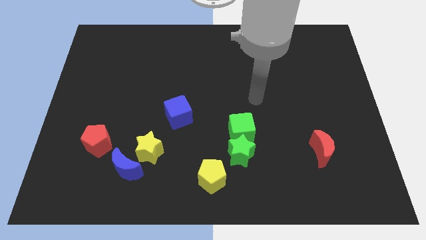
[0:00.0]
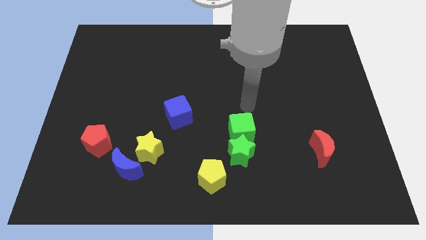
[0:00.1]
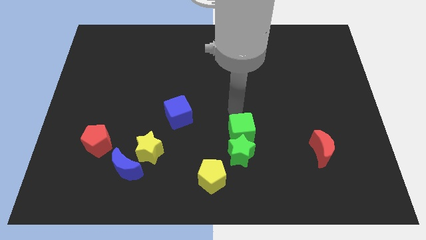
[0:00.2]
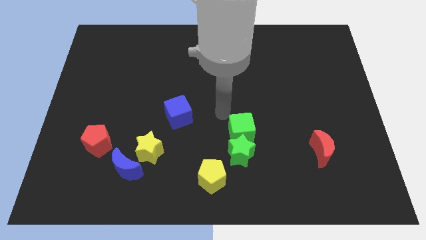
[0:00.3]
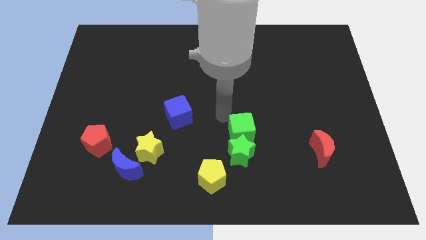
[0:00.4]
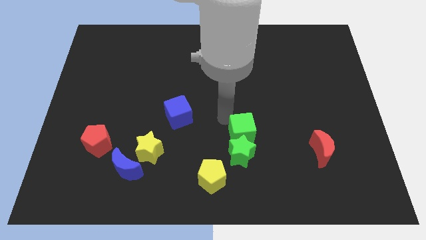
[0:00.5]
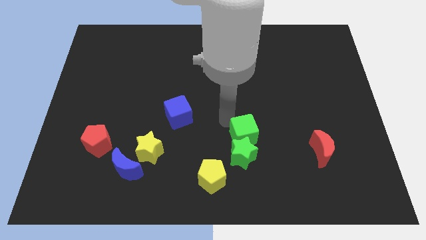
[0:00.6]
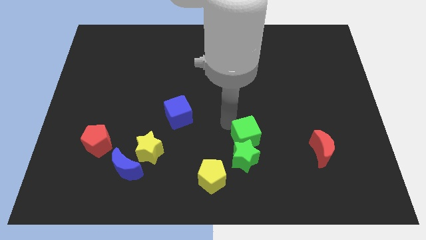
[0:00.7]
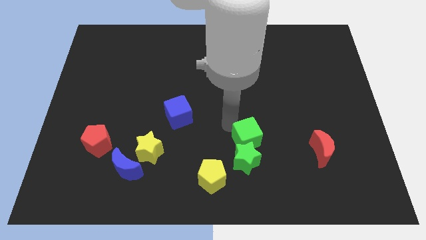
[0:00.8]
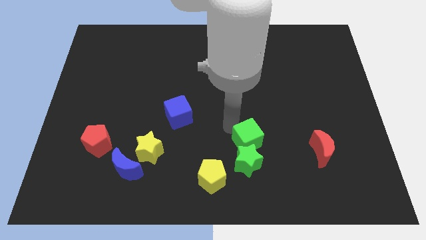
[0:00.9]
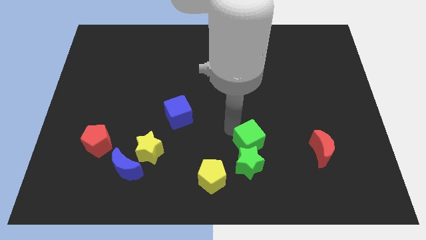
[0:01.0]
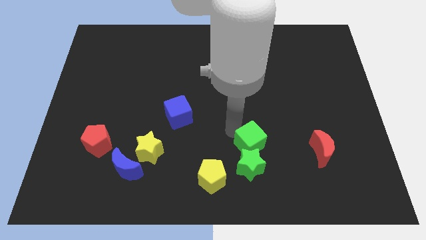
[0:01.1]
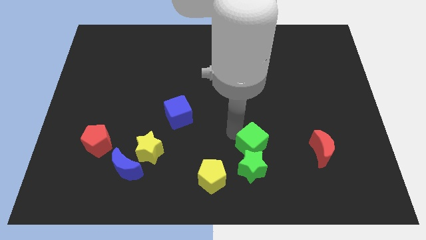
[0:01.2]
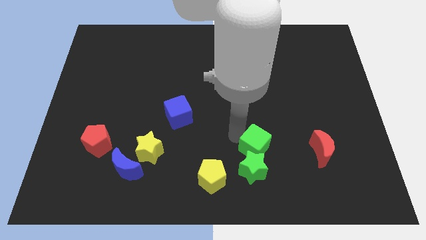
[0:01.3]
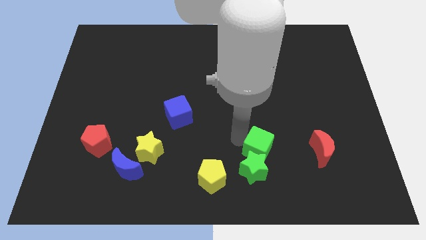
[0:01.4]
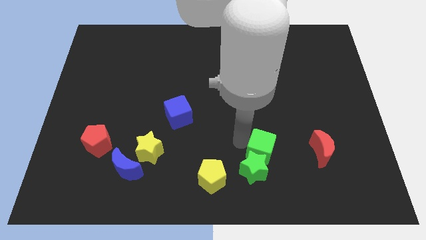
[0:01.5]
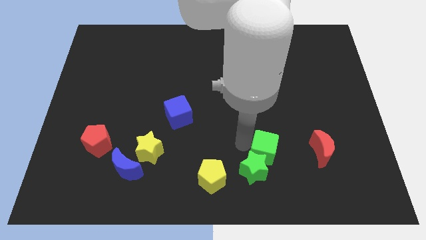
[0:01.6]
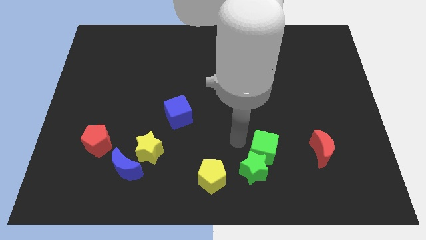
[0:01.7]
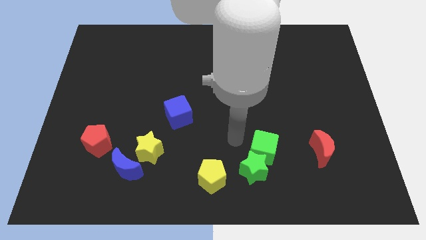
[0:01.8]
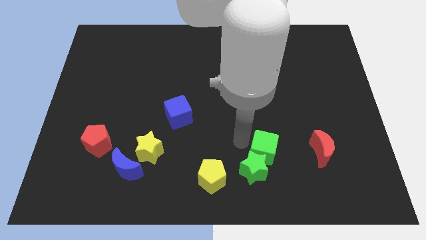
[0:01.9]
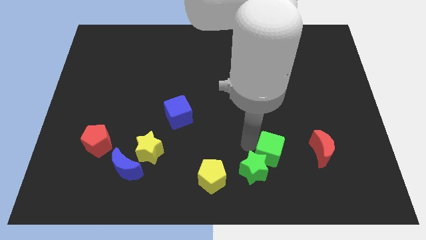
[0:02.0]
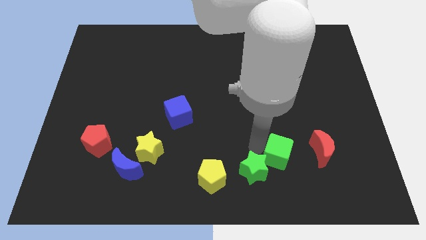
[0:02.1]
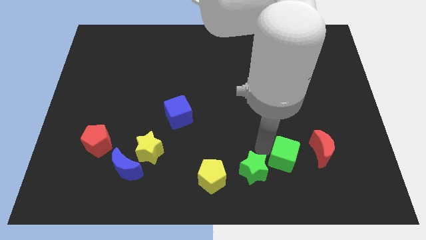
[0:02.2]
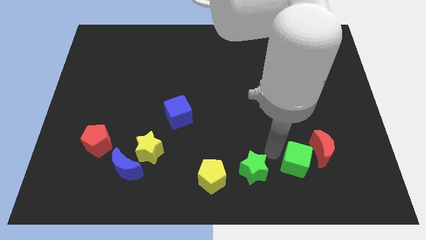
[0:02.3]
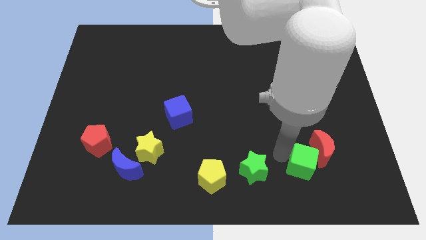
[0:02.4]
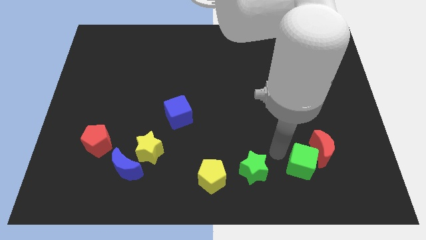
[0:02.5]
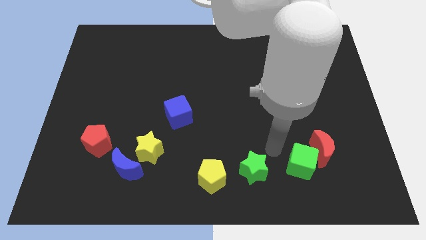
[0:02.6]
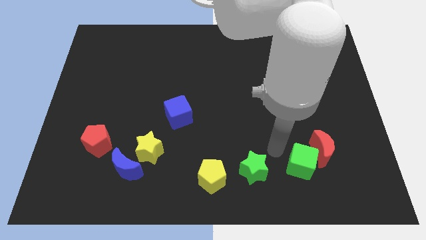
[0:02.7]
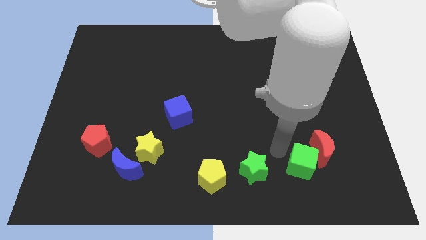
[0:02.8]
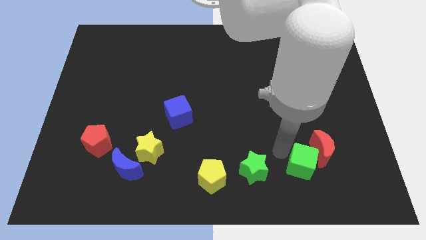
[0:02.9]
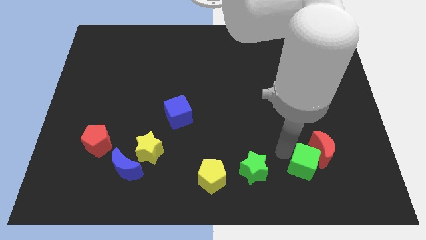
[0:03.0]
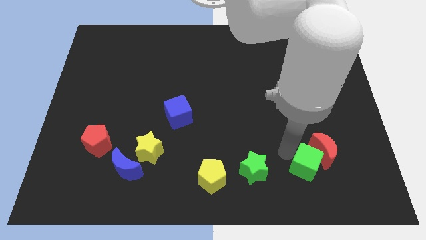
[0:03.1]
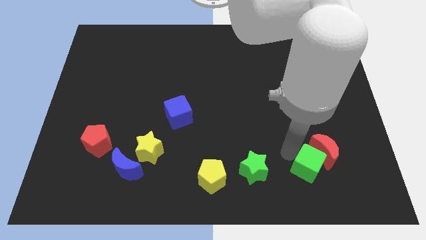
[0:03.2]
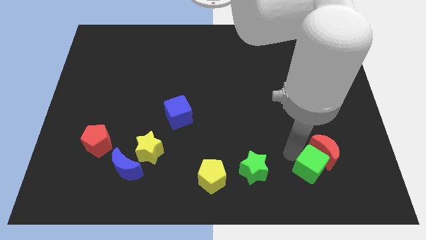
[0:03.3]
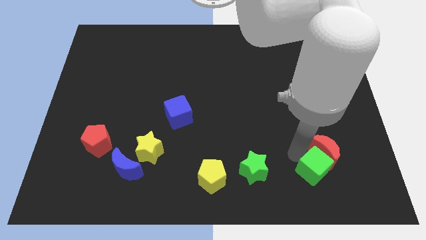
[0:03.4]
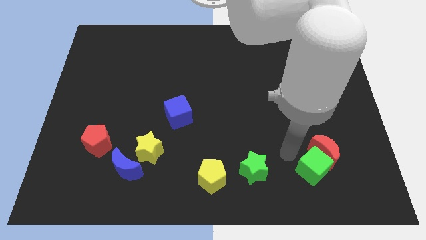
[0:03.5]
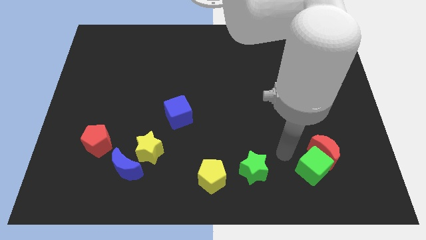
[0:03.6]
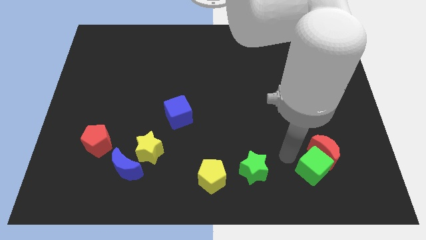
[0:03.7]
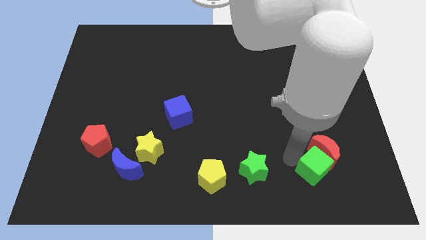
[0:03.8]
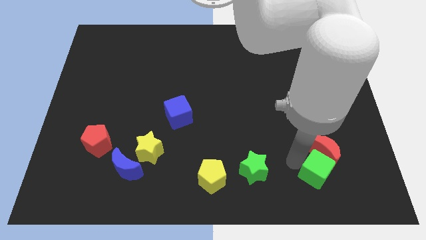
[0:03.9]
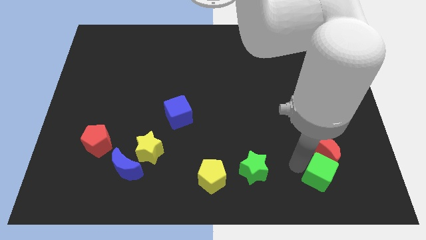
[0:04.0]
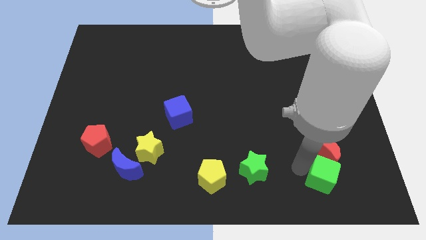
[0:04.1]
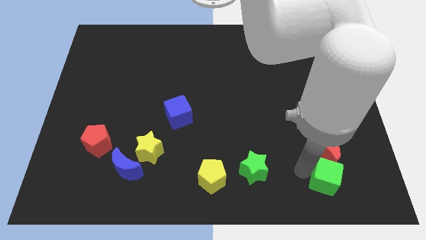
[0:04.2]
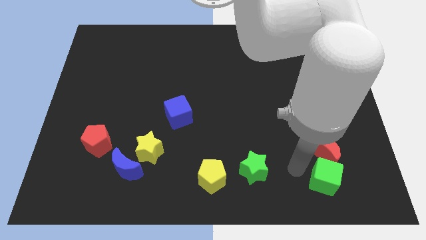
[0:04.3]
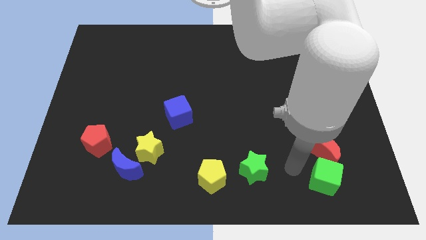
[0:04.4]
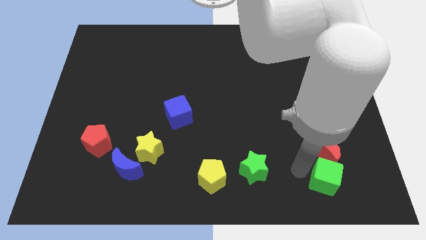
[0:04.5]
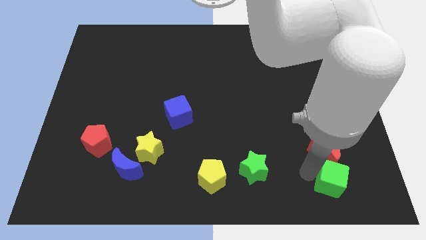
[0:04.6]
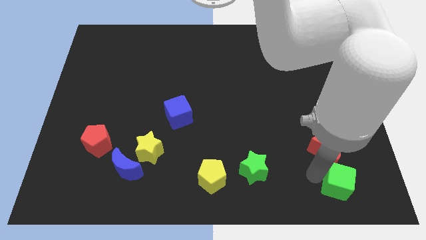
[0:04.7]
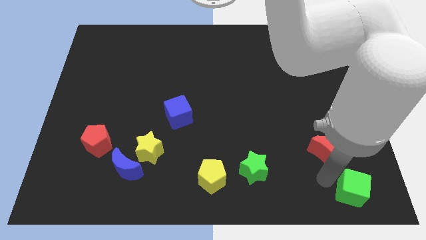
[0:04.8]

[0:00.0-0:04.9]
move the green cube to the bottom right of the board

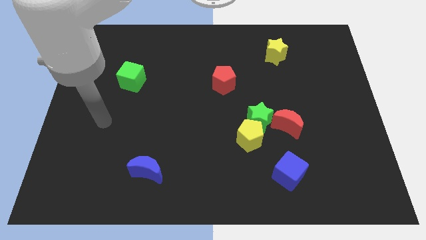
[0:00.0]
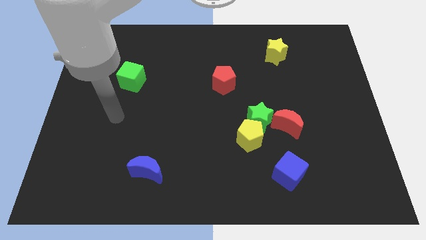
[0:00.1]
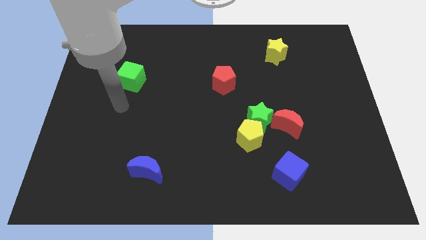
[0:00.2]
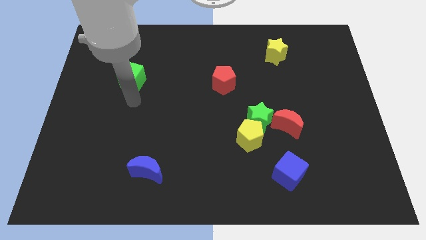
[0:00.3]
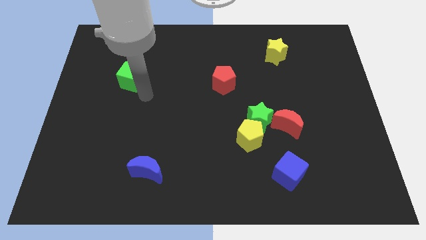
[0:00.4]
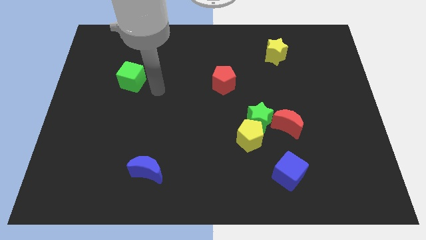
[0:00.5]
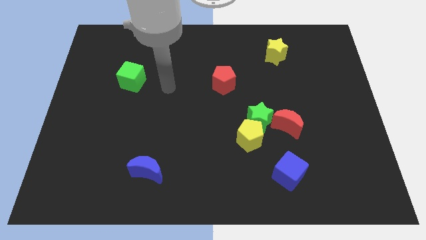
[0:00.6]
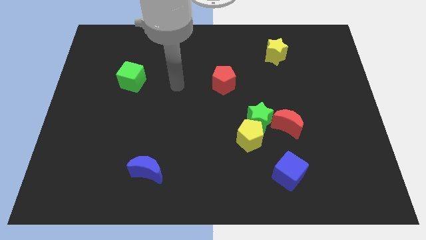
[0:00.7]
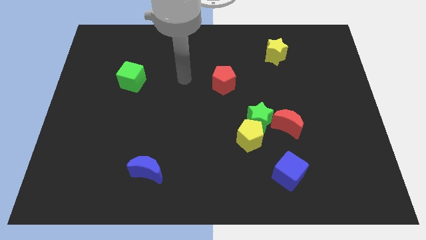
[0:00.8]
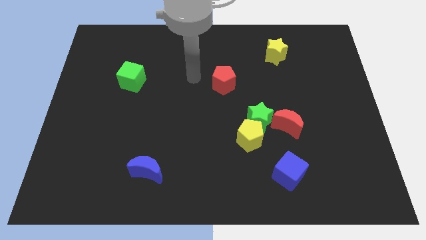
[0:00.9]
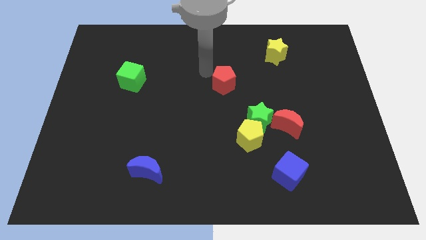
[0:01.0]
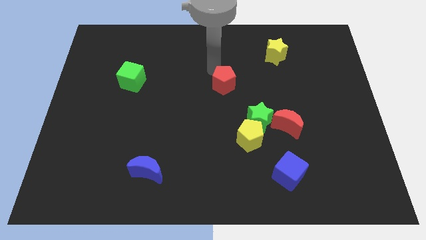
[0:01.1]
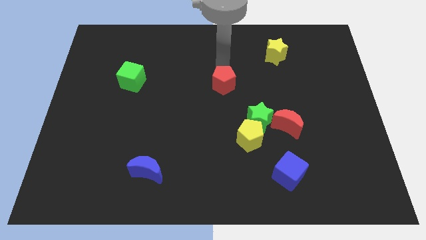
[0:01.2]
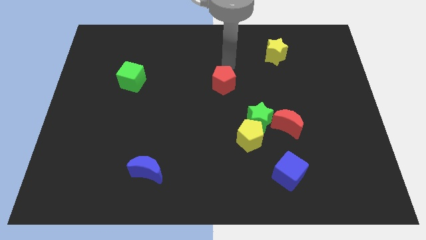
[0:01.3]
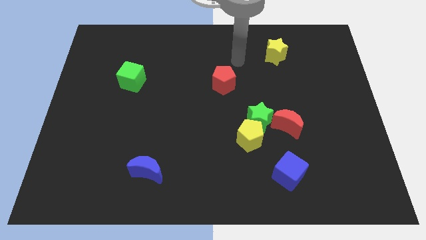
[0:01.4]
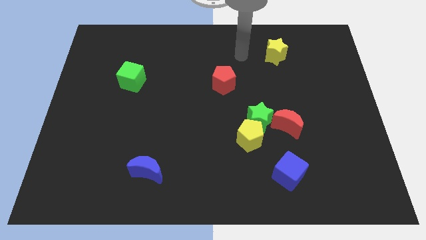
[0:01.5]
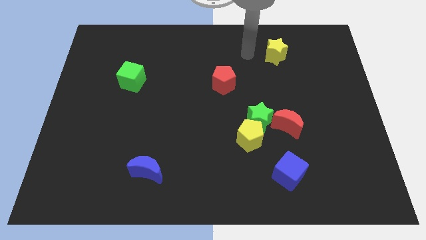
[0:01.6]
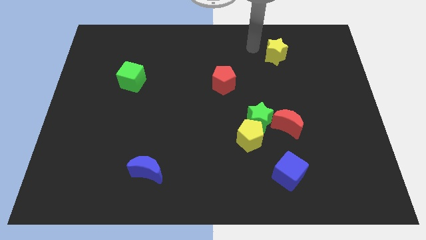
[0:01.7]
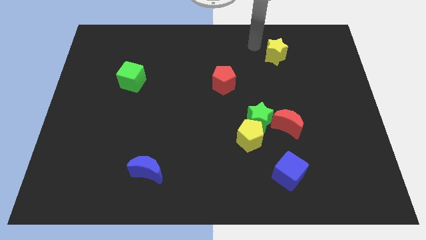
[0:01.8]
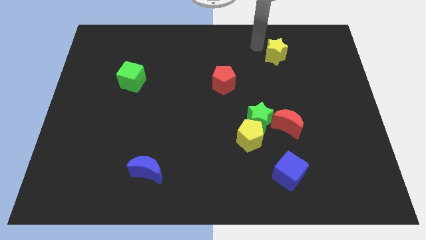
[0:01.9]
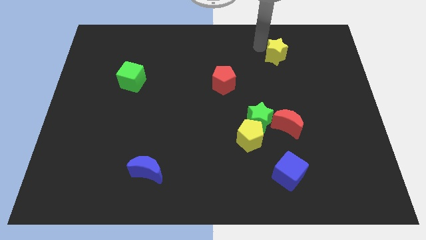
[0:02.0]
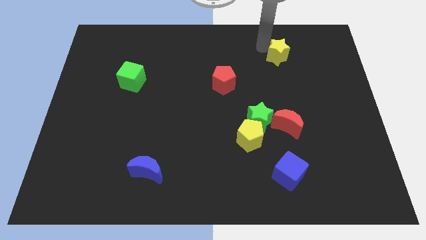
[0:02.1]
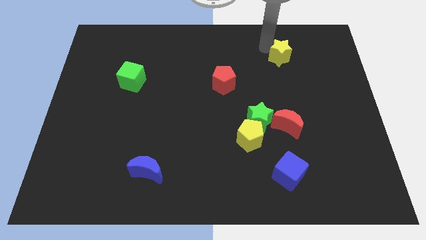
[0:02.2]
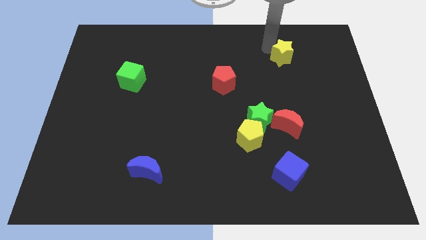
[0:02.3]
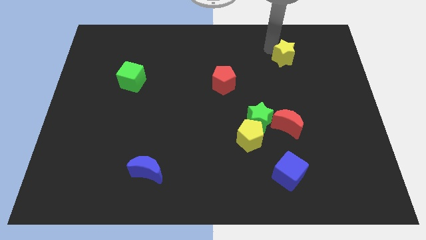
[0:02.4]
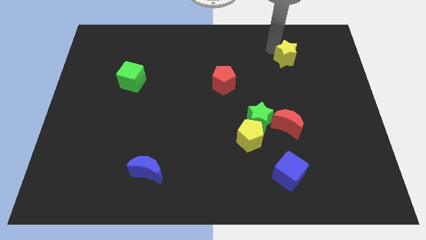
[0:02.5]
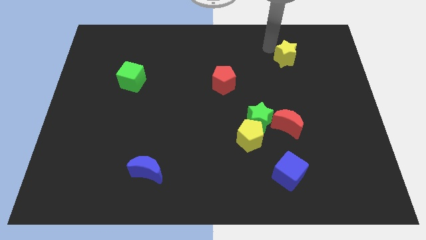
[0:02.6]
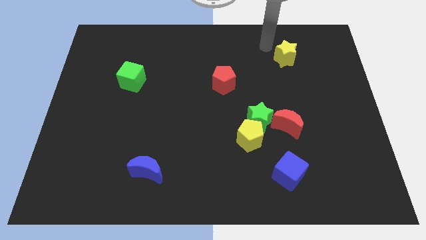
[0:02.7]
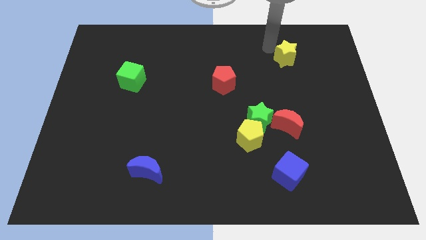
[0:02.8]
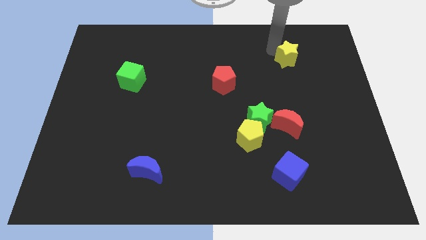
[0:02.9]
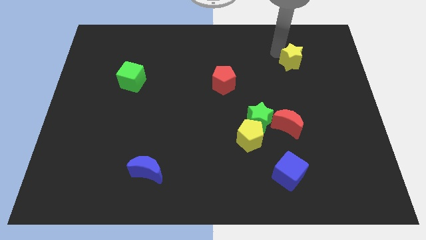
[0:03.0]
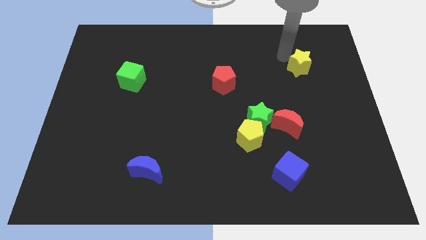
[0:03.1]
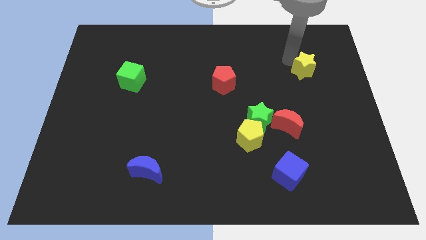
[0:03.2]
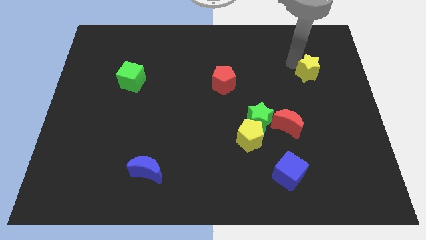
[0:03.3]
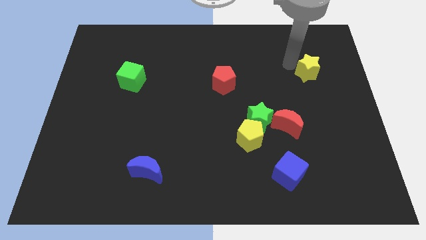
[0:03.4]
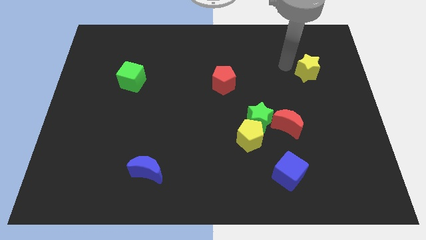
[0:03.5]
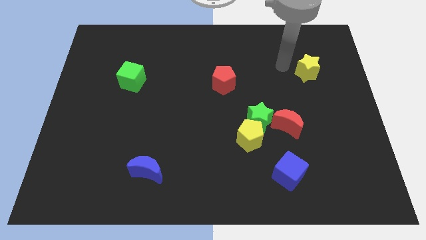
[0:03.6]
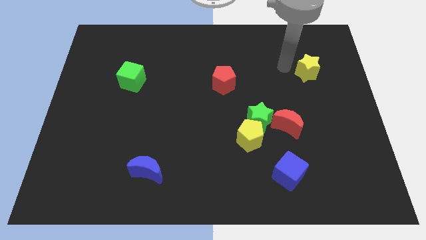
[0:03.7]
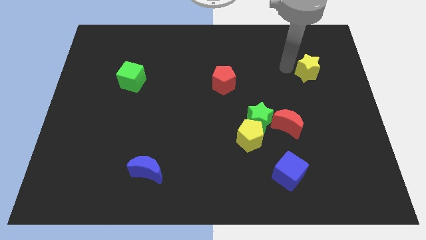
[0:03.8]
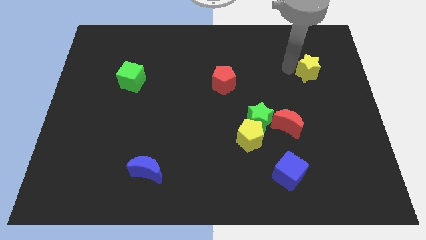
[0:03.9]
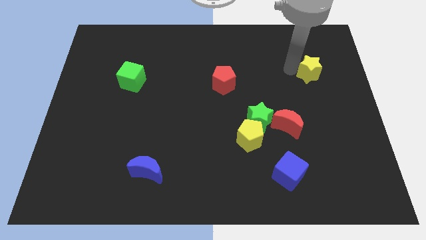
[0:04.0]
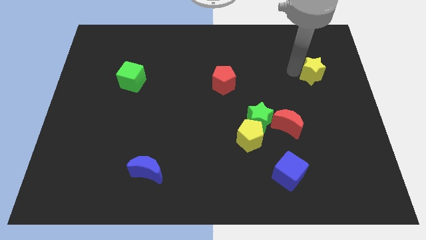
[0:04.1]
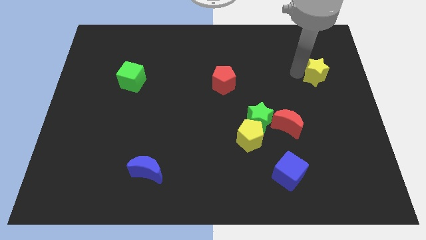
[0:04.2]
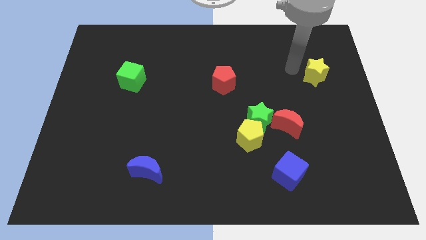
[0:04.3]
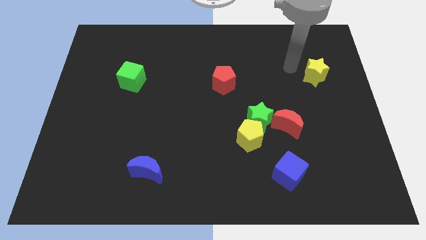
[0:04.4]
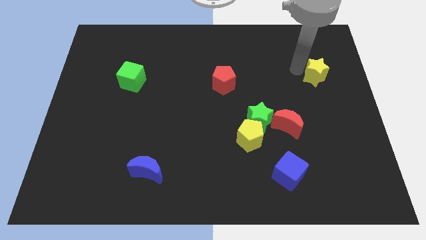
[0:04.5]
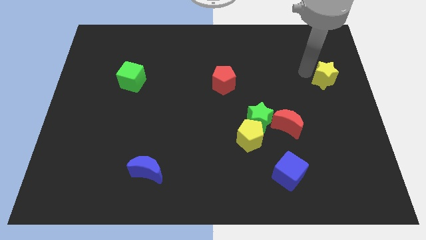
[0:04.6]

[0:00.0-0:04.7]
move the yellow star to the right side
